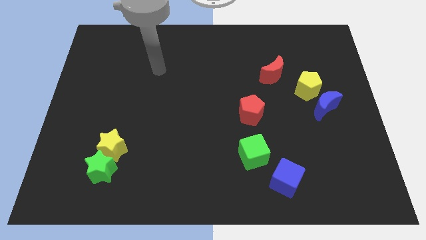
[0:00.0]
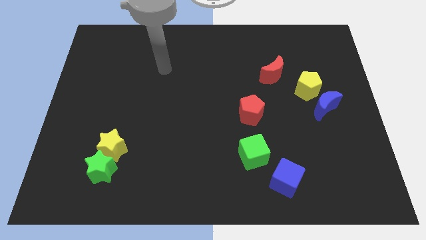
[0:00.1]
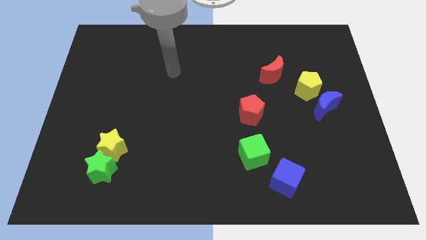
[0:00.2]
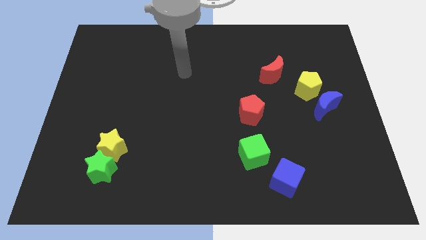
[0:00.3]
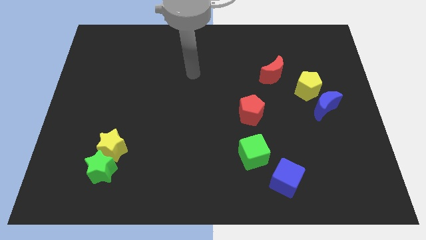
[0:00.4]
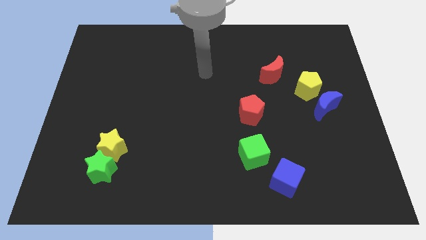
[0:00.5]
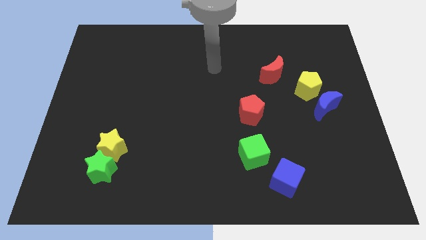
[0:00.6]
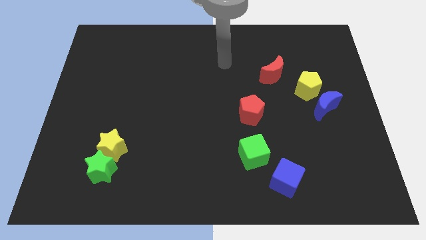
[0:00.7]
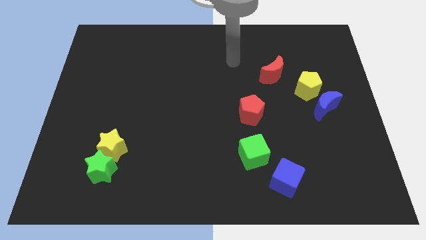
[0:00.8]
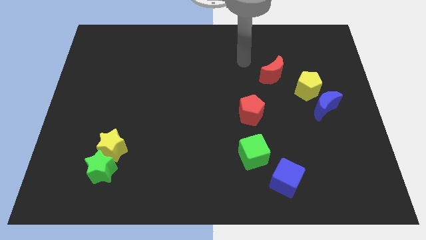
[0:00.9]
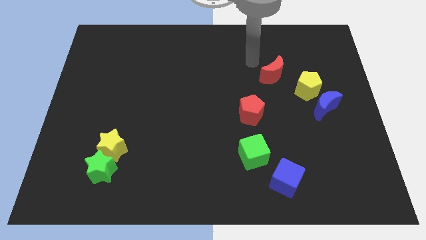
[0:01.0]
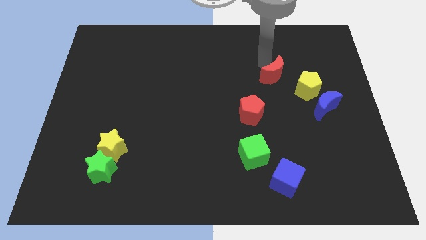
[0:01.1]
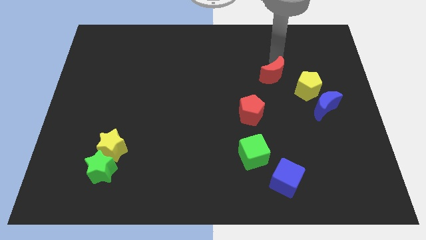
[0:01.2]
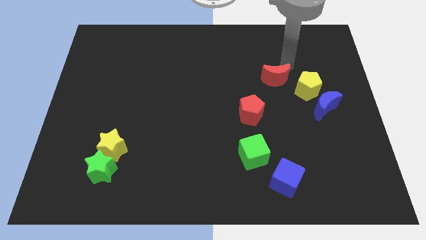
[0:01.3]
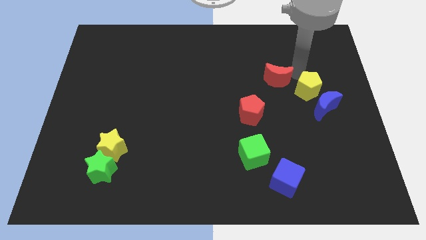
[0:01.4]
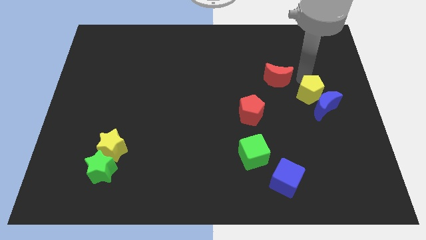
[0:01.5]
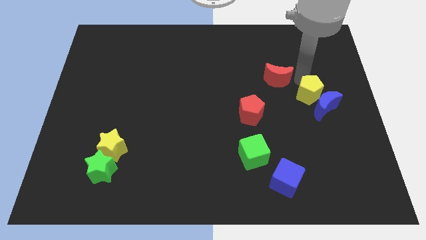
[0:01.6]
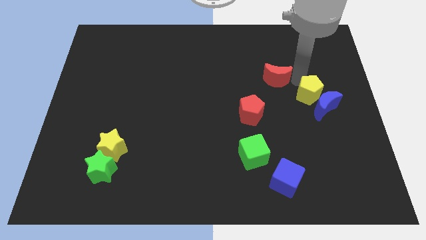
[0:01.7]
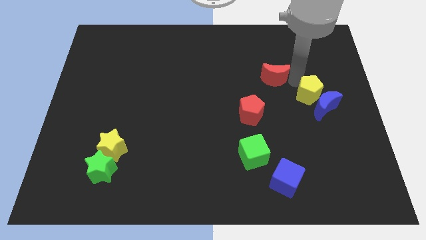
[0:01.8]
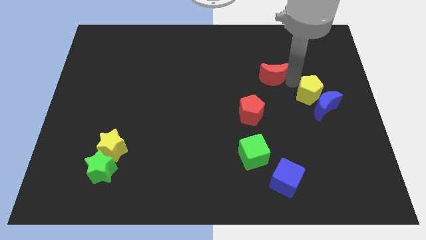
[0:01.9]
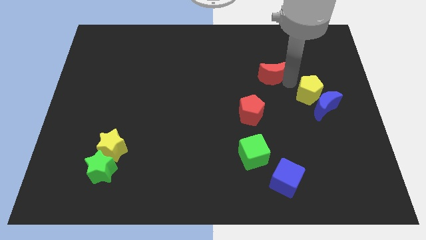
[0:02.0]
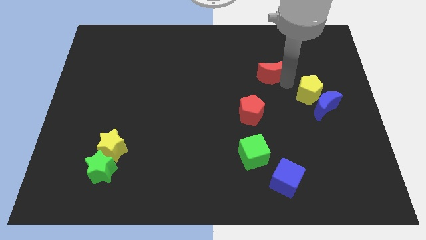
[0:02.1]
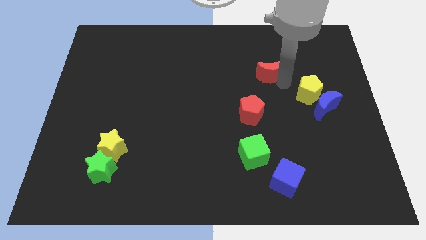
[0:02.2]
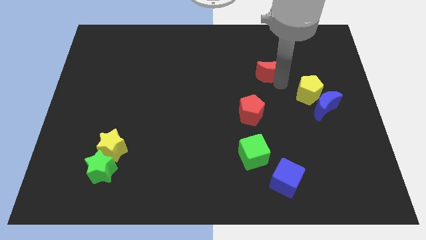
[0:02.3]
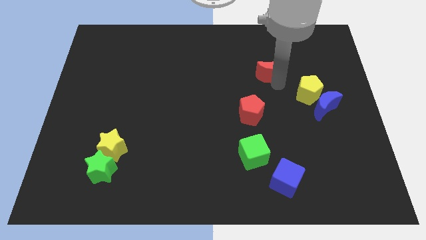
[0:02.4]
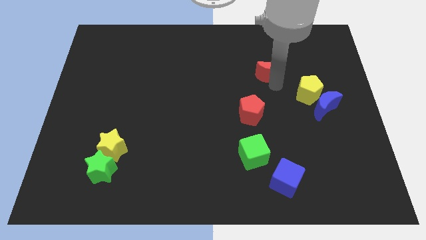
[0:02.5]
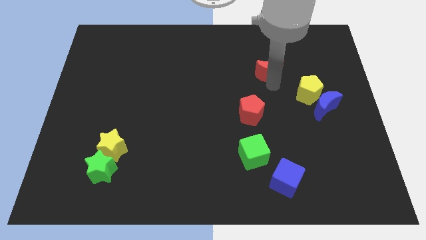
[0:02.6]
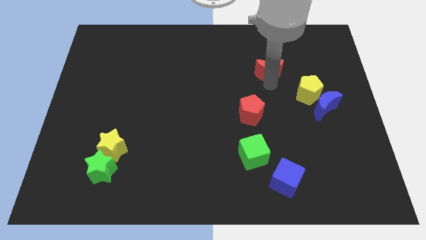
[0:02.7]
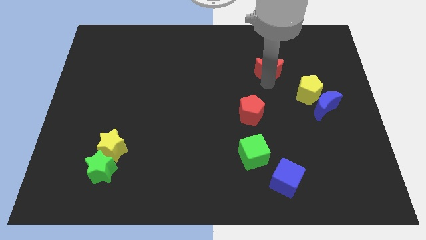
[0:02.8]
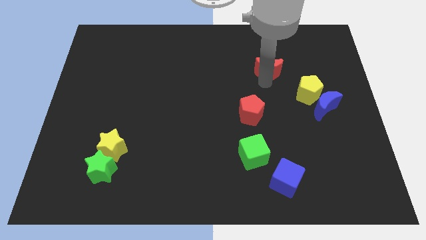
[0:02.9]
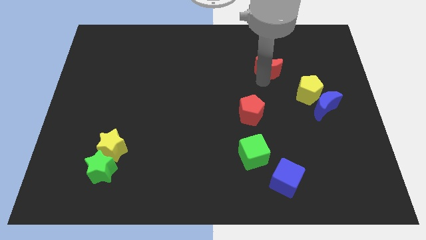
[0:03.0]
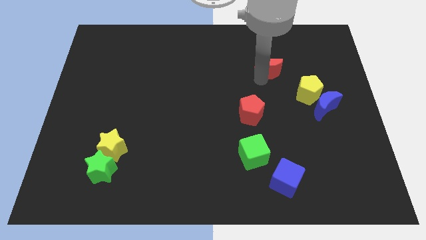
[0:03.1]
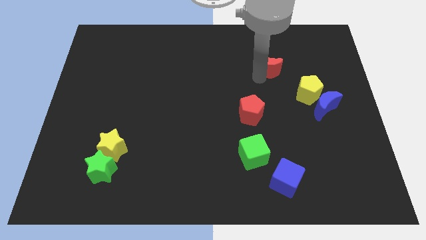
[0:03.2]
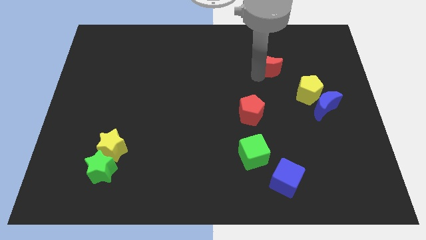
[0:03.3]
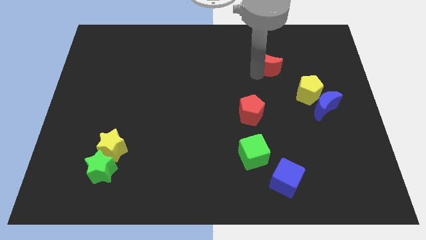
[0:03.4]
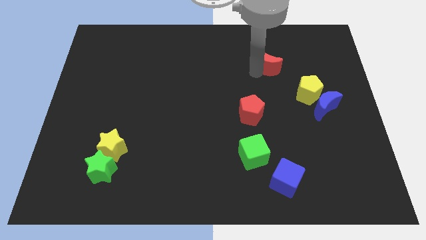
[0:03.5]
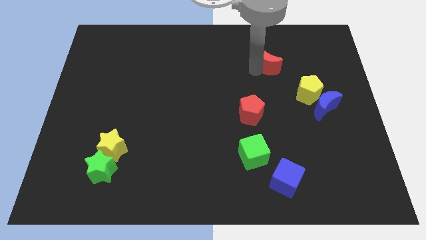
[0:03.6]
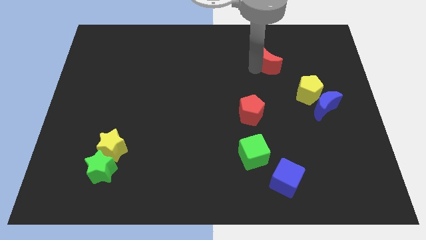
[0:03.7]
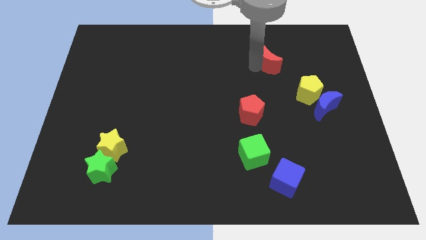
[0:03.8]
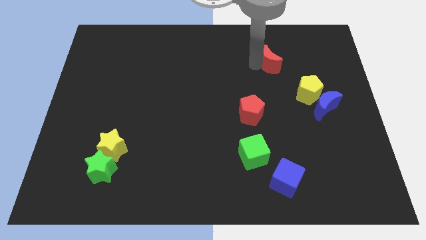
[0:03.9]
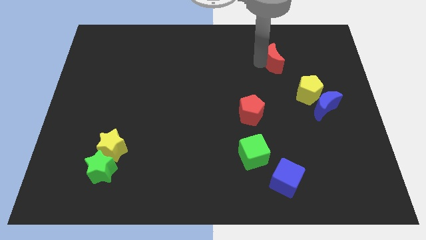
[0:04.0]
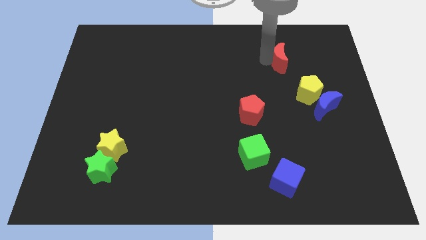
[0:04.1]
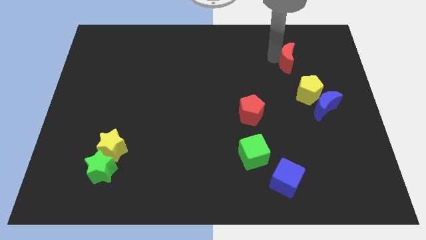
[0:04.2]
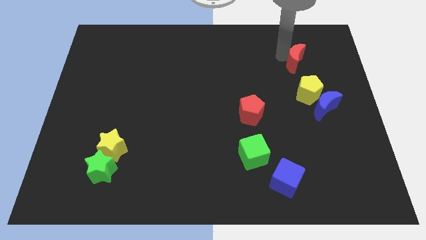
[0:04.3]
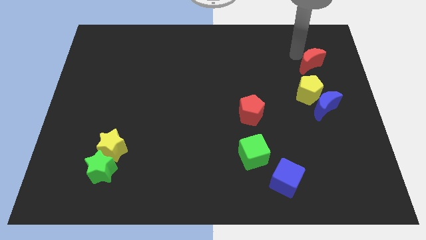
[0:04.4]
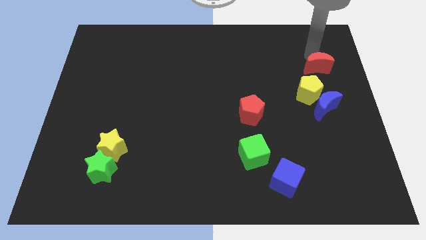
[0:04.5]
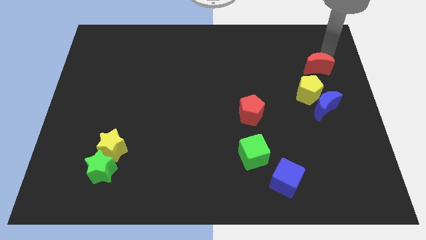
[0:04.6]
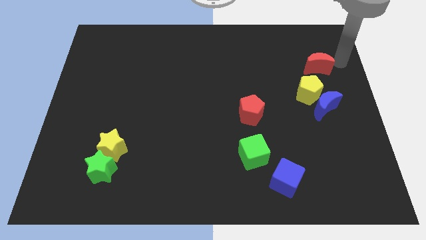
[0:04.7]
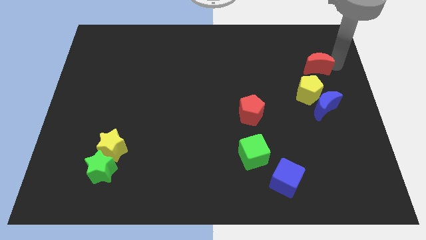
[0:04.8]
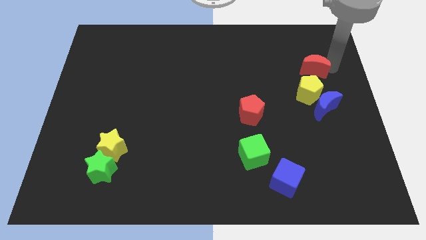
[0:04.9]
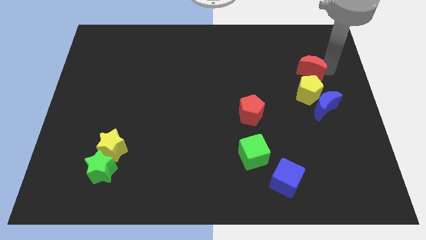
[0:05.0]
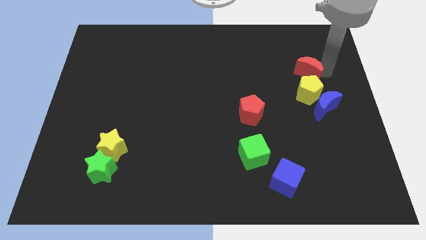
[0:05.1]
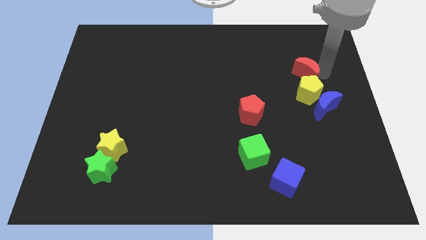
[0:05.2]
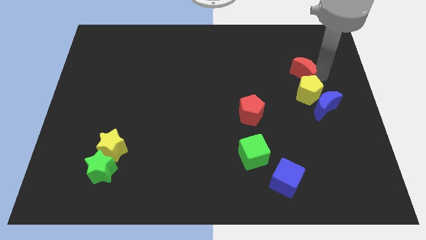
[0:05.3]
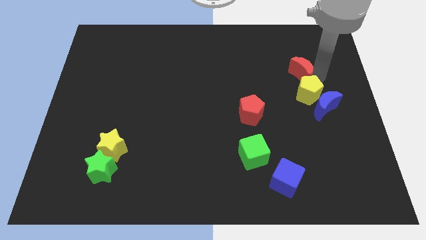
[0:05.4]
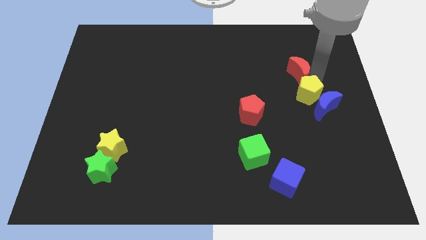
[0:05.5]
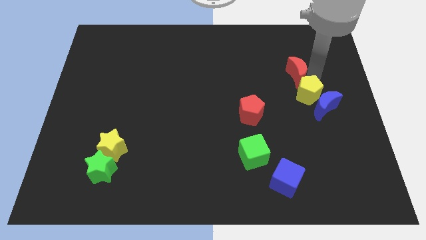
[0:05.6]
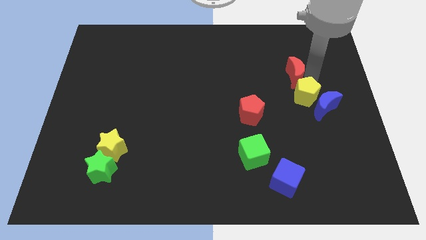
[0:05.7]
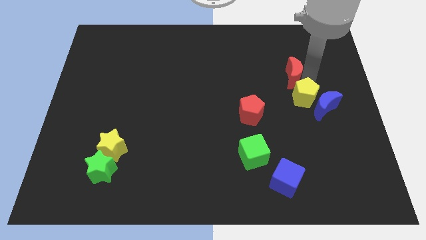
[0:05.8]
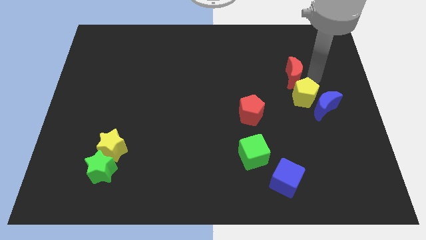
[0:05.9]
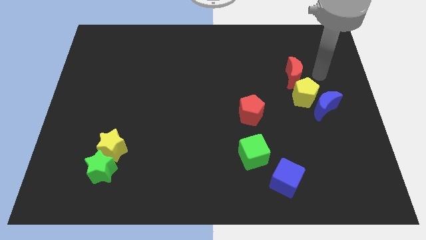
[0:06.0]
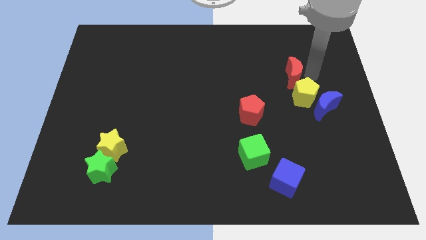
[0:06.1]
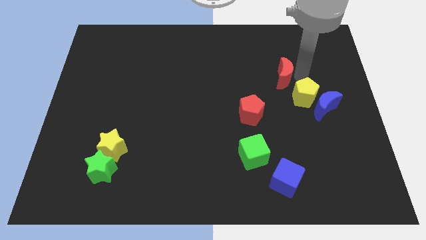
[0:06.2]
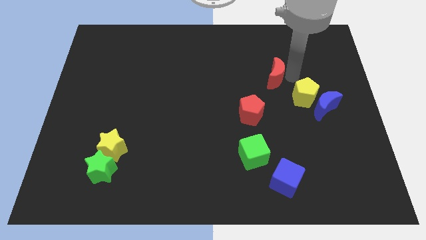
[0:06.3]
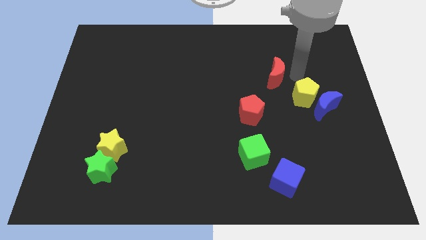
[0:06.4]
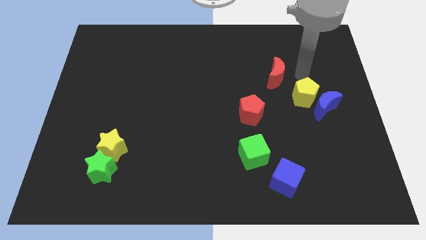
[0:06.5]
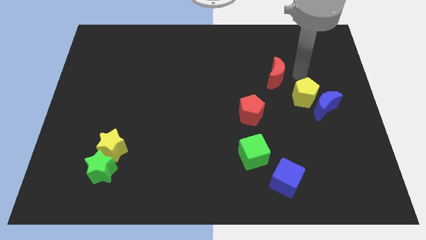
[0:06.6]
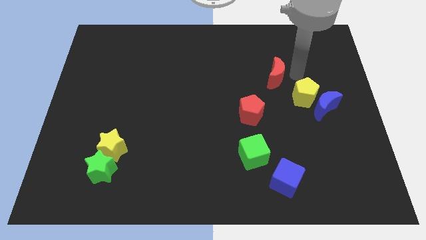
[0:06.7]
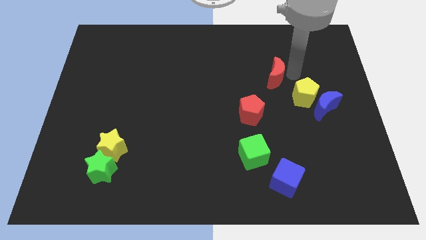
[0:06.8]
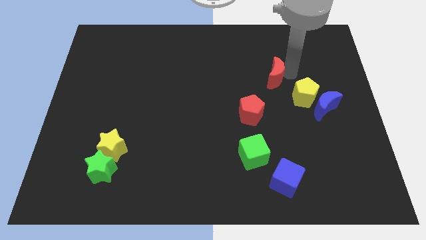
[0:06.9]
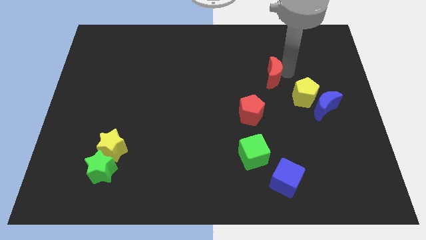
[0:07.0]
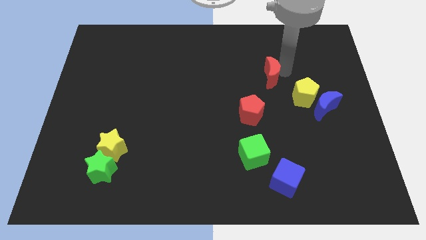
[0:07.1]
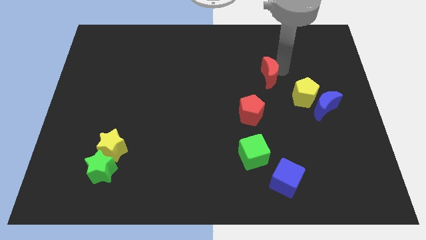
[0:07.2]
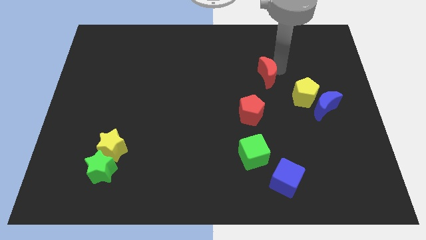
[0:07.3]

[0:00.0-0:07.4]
push the red moon to the top side of the red pentagon
